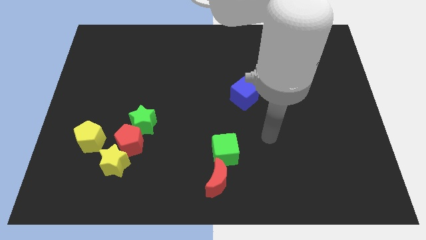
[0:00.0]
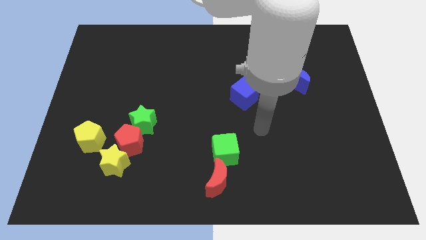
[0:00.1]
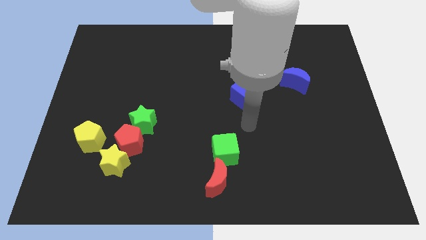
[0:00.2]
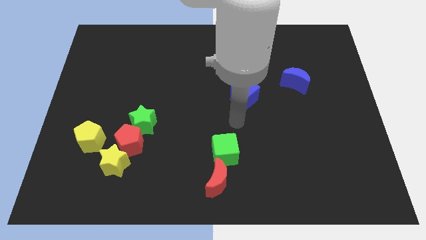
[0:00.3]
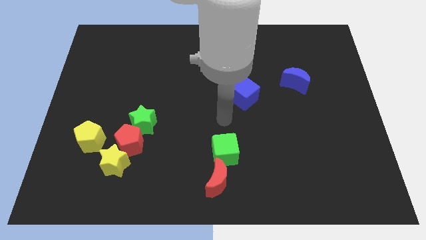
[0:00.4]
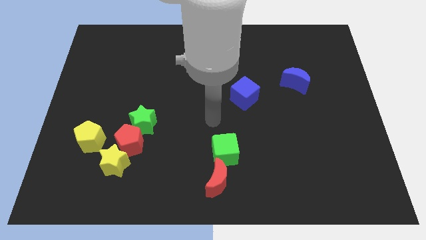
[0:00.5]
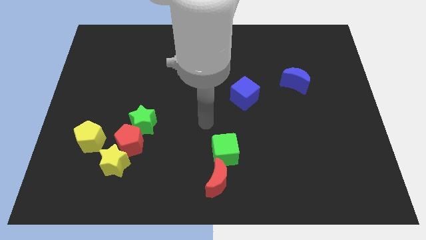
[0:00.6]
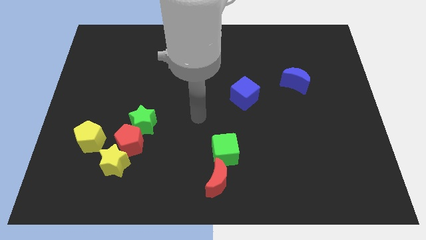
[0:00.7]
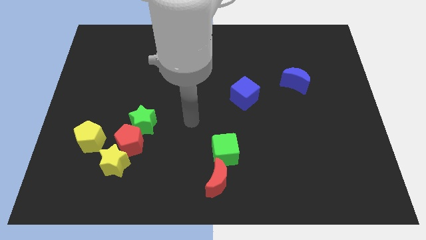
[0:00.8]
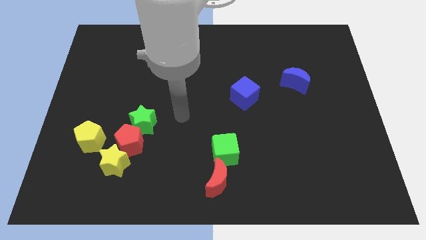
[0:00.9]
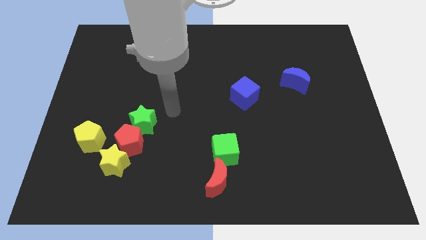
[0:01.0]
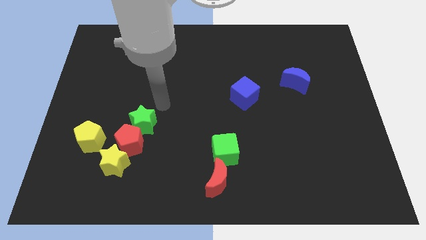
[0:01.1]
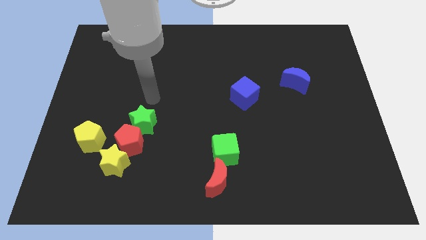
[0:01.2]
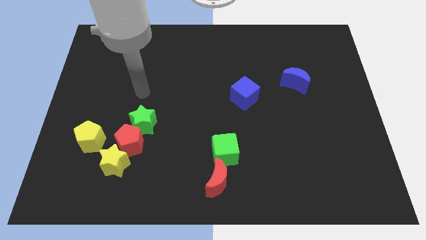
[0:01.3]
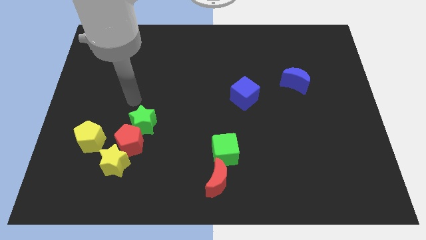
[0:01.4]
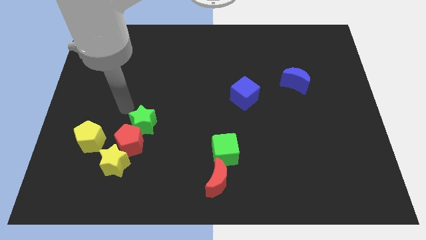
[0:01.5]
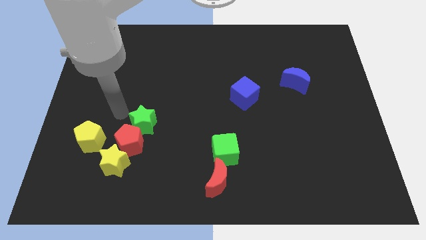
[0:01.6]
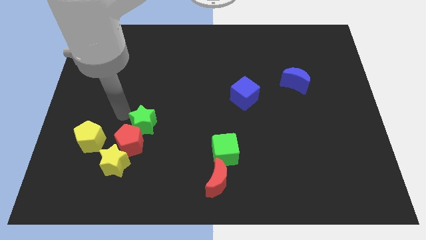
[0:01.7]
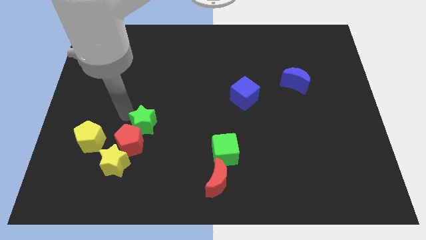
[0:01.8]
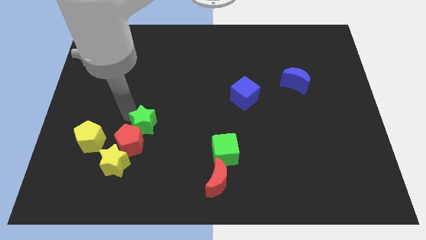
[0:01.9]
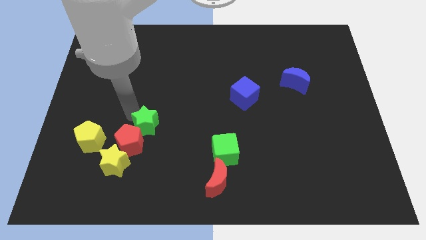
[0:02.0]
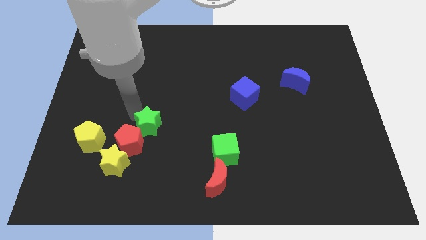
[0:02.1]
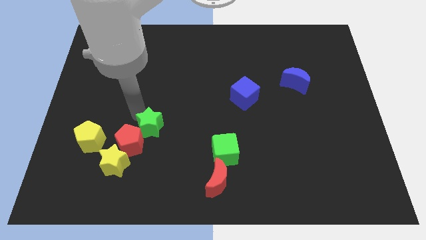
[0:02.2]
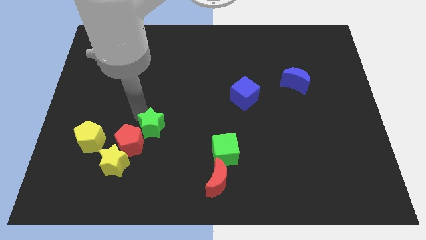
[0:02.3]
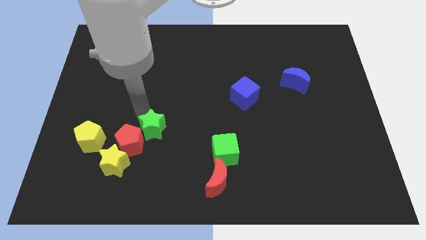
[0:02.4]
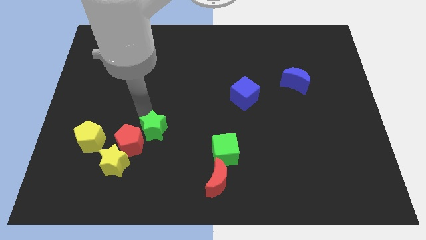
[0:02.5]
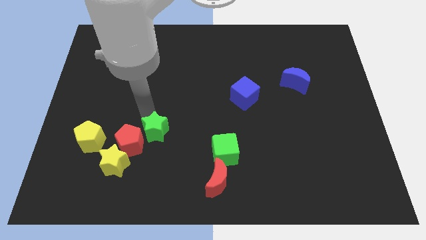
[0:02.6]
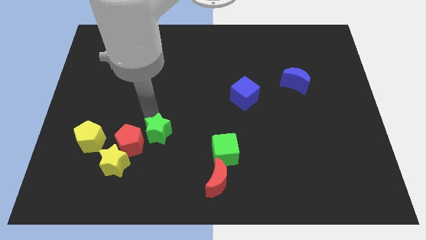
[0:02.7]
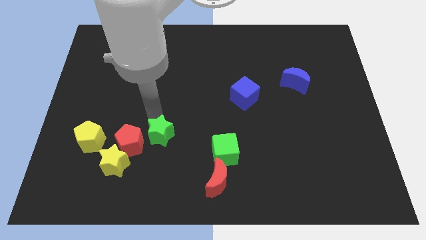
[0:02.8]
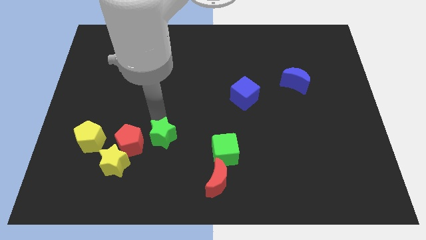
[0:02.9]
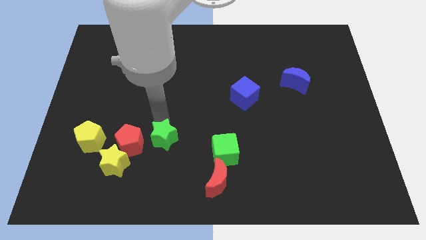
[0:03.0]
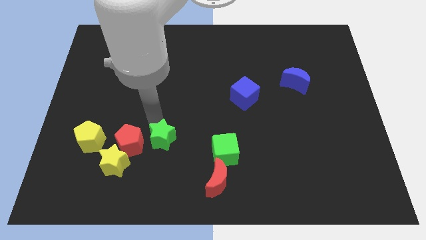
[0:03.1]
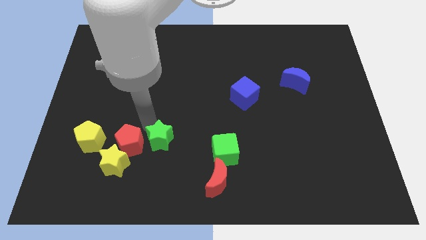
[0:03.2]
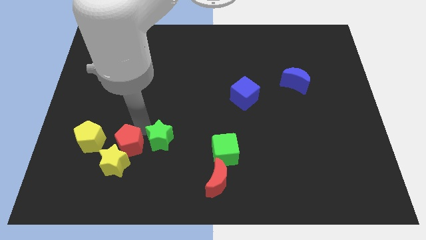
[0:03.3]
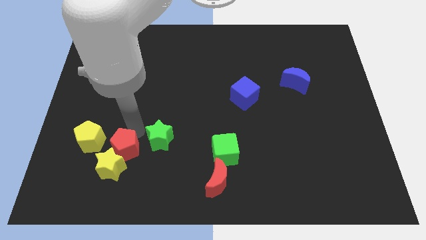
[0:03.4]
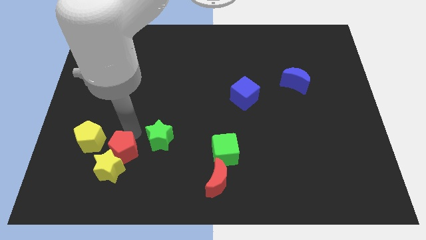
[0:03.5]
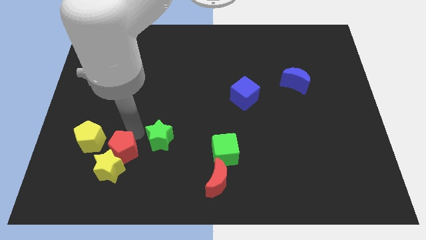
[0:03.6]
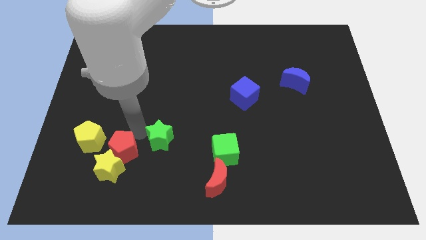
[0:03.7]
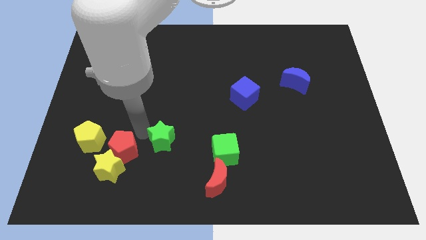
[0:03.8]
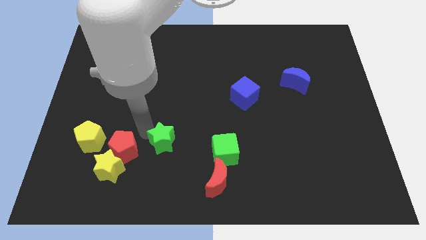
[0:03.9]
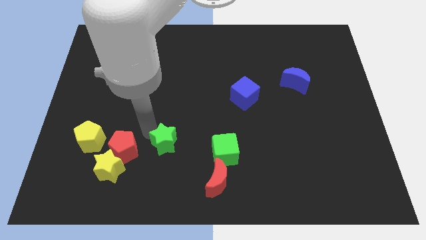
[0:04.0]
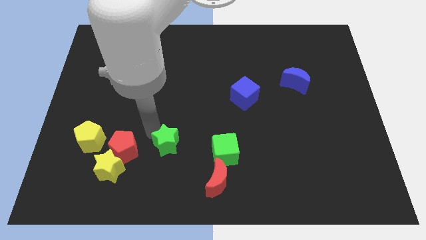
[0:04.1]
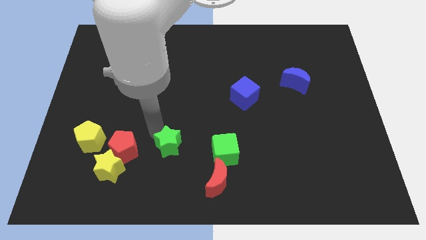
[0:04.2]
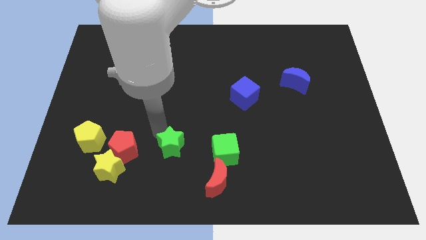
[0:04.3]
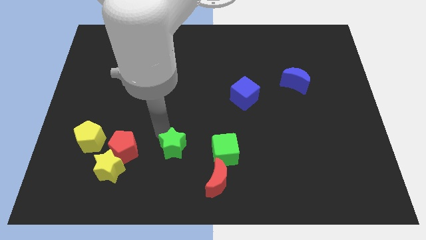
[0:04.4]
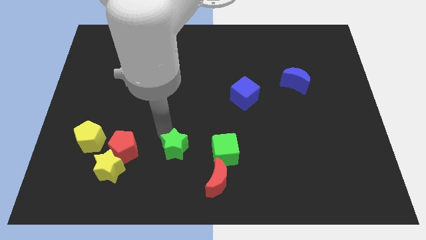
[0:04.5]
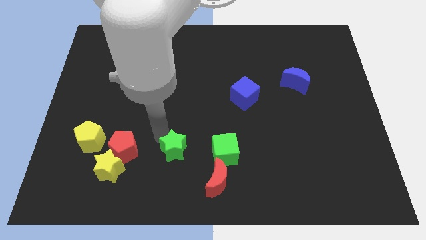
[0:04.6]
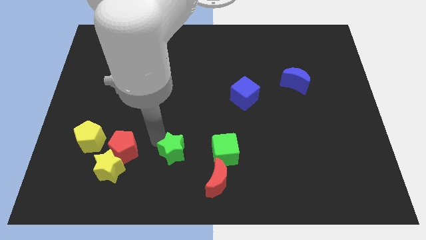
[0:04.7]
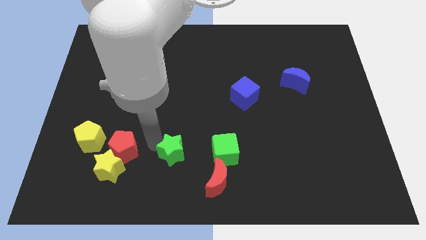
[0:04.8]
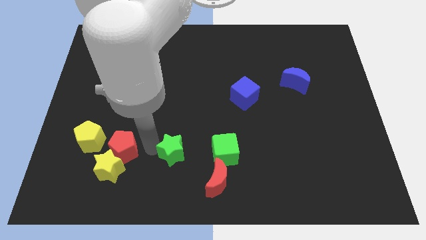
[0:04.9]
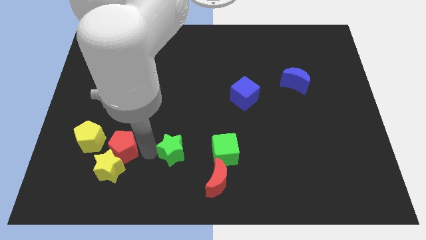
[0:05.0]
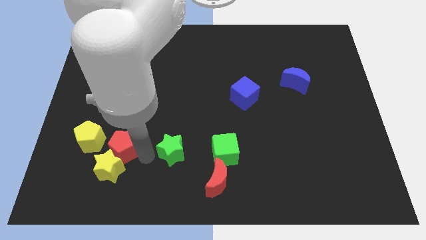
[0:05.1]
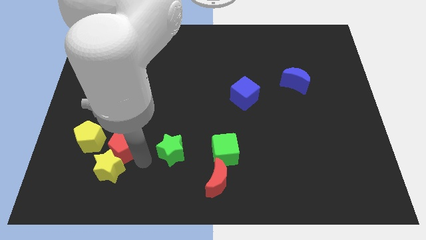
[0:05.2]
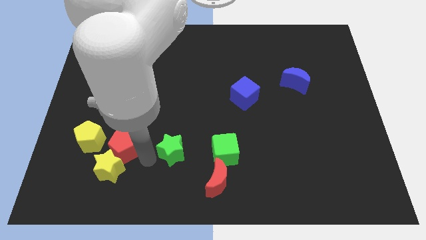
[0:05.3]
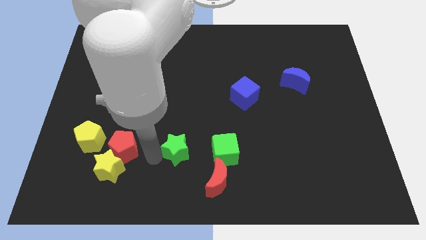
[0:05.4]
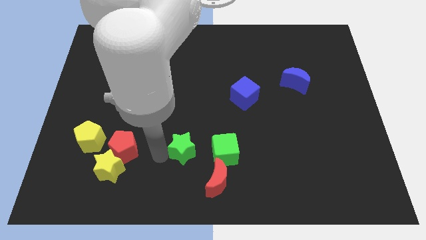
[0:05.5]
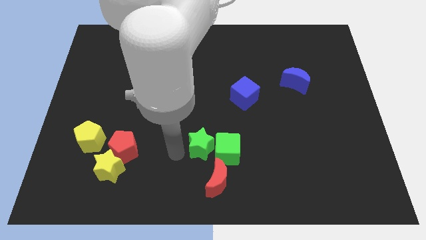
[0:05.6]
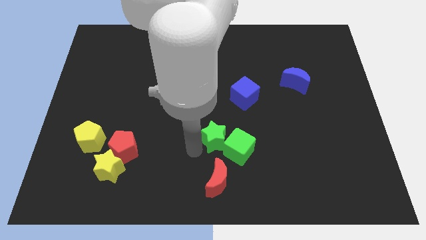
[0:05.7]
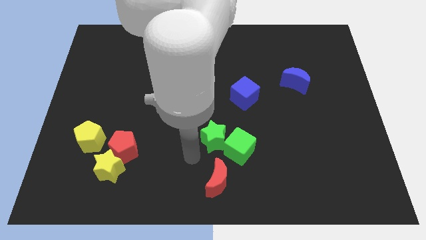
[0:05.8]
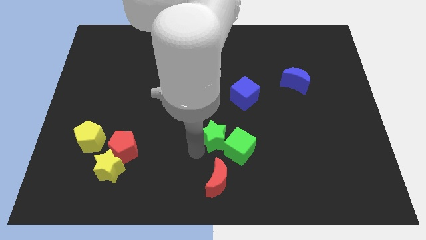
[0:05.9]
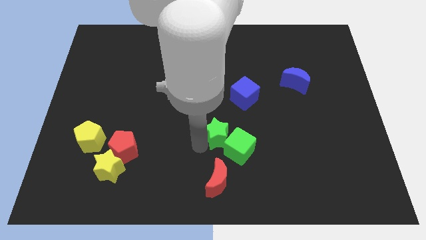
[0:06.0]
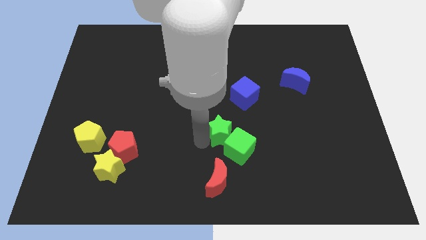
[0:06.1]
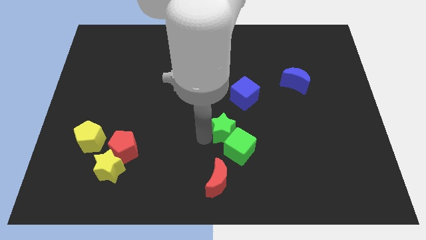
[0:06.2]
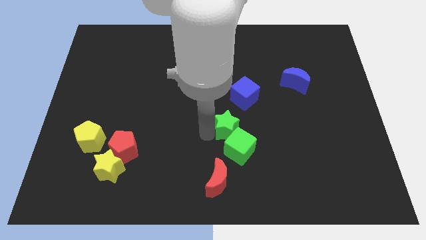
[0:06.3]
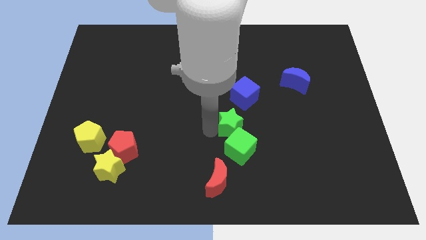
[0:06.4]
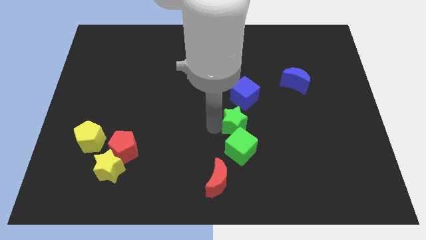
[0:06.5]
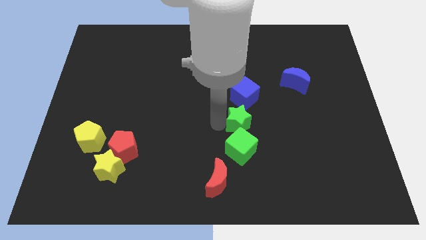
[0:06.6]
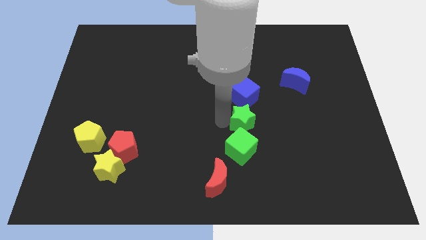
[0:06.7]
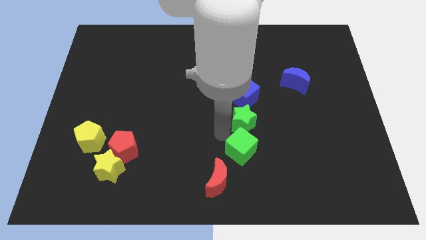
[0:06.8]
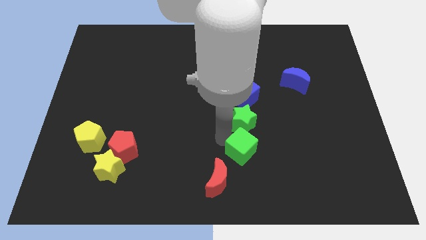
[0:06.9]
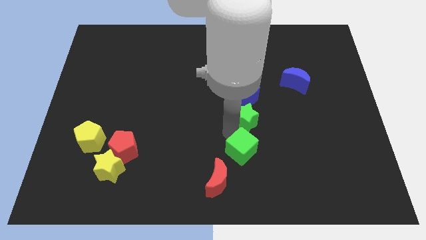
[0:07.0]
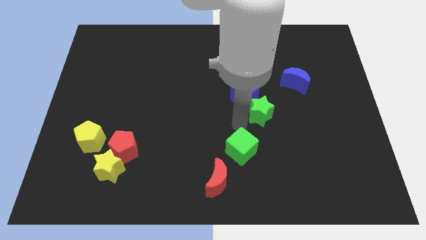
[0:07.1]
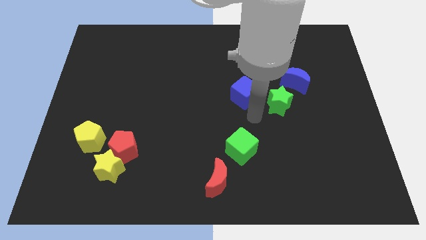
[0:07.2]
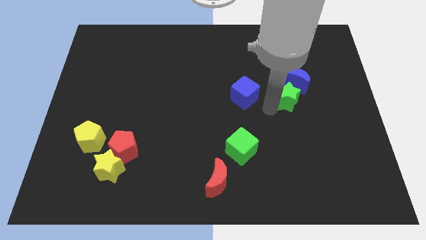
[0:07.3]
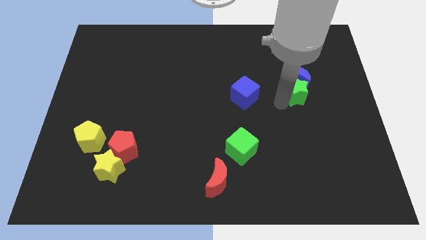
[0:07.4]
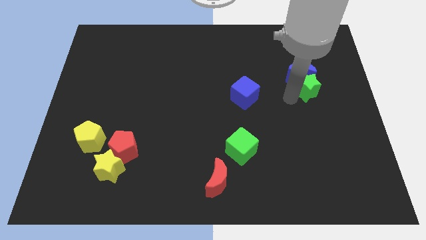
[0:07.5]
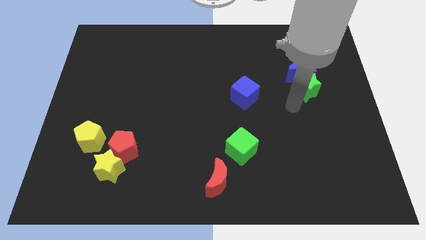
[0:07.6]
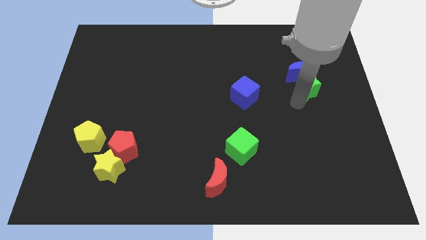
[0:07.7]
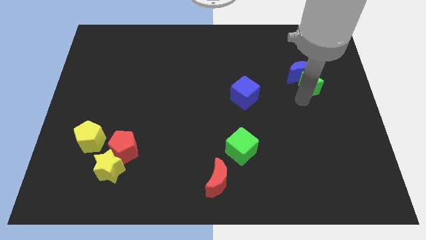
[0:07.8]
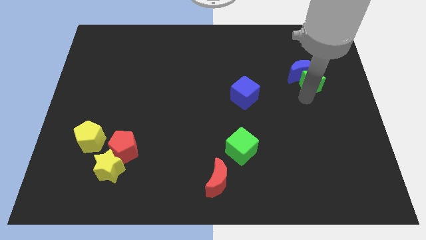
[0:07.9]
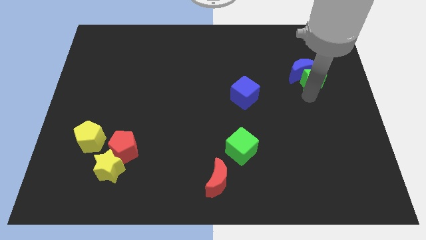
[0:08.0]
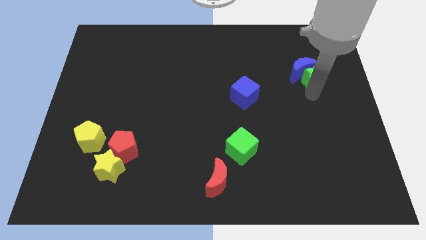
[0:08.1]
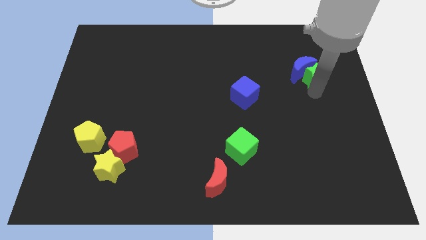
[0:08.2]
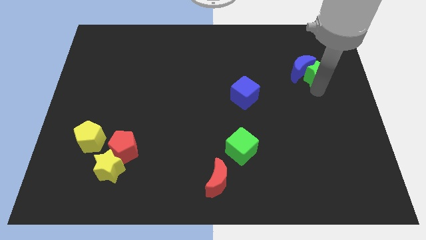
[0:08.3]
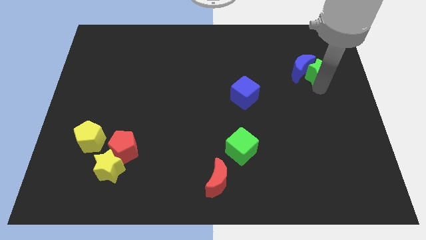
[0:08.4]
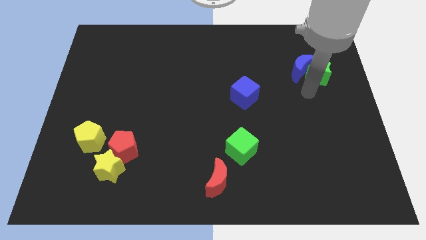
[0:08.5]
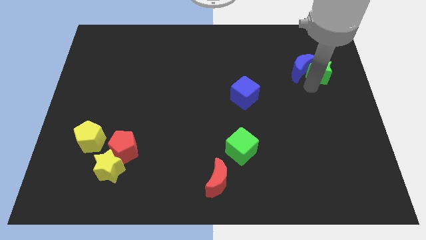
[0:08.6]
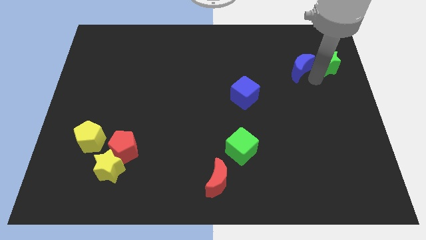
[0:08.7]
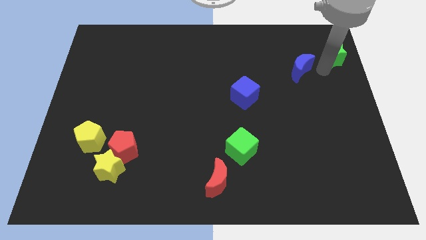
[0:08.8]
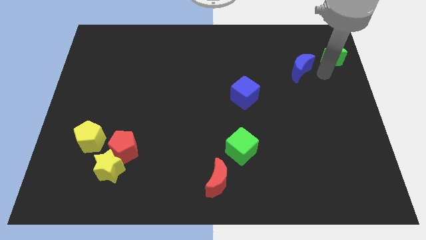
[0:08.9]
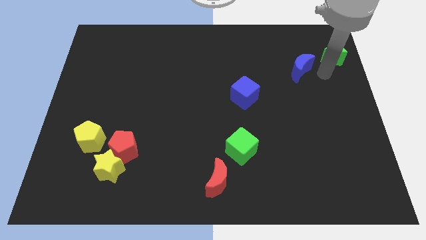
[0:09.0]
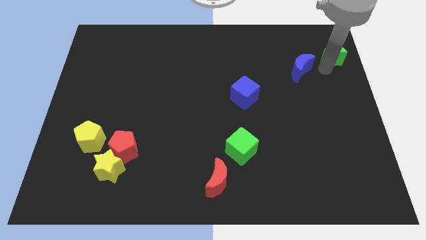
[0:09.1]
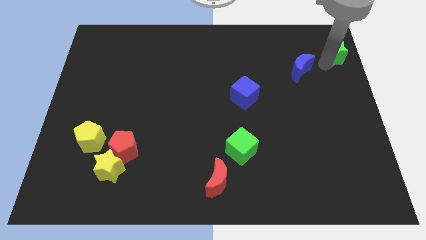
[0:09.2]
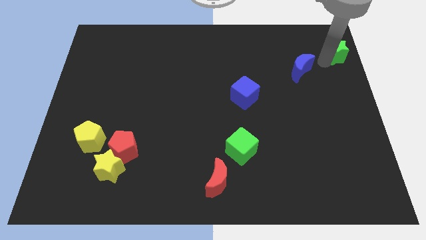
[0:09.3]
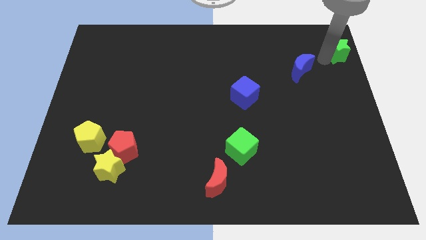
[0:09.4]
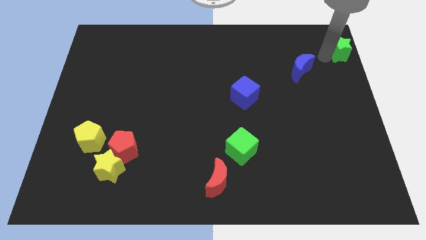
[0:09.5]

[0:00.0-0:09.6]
put the green star to the upper right corner
